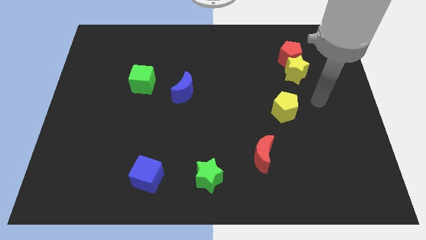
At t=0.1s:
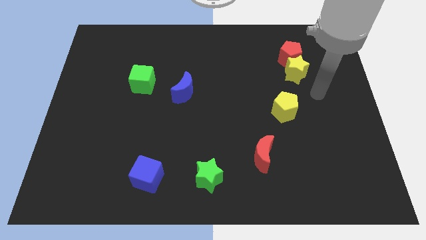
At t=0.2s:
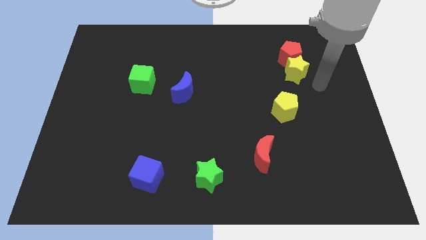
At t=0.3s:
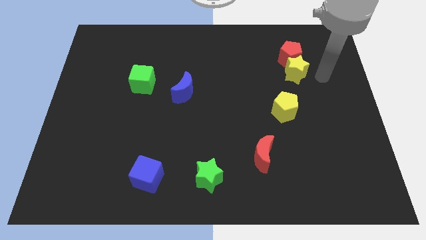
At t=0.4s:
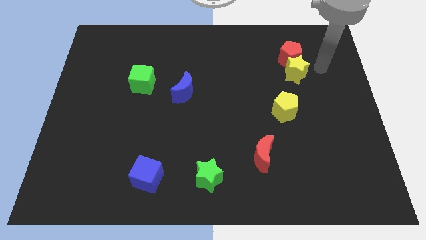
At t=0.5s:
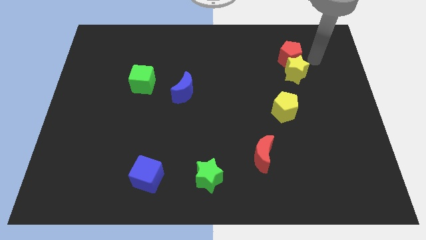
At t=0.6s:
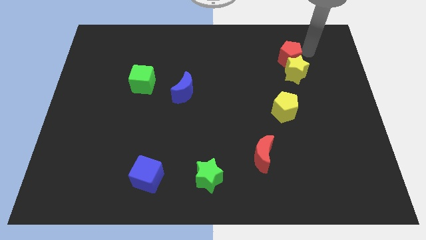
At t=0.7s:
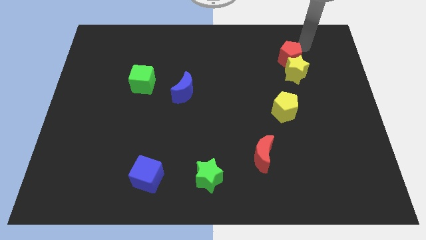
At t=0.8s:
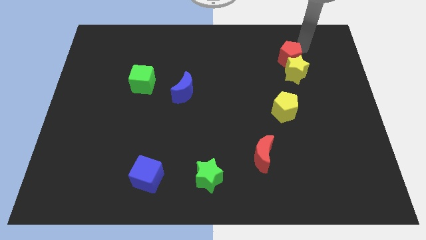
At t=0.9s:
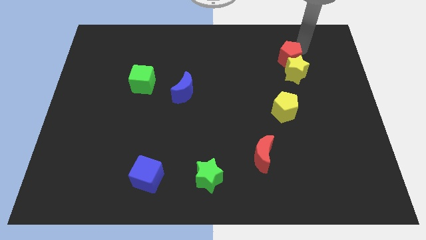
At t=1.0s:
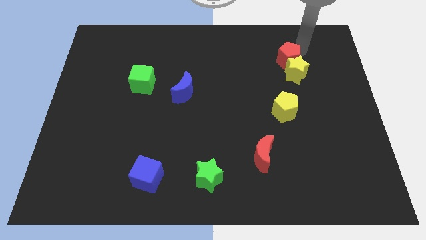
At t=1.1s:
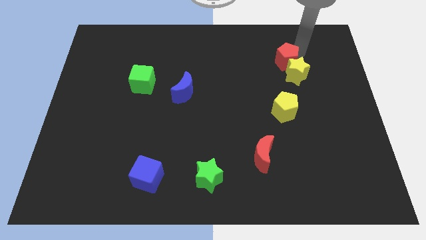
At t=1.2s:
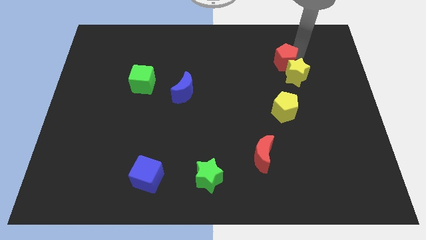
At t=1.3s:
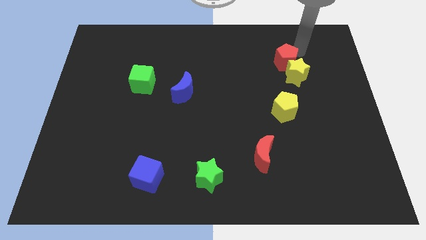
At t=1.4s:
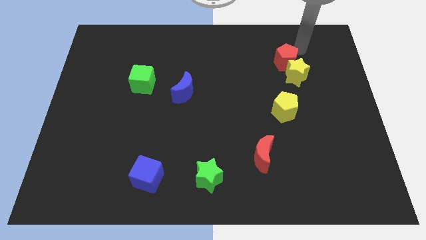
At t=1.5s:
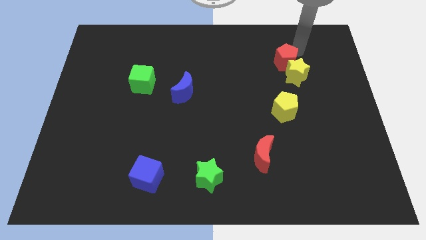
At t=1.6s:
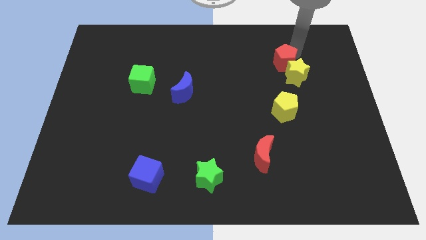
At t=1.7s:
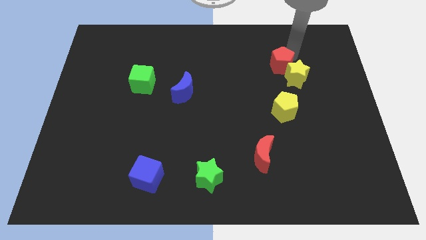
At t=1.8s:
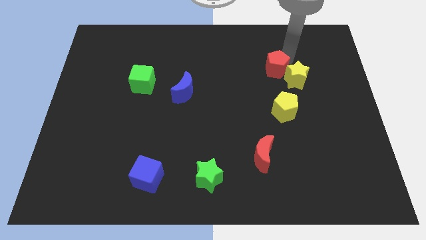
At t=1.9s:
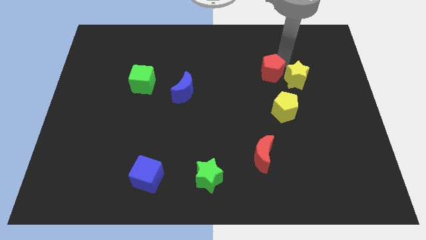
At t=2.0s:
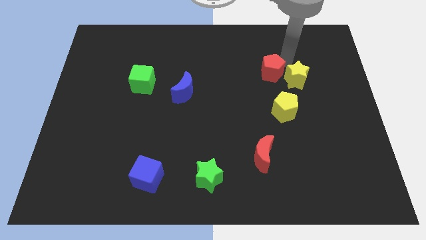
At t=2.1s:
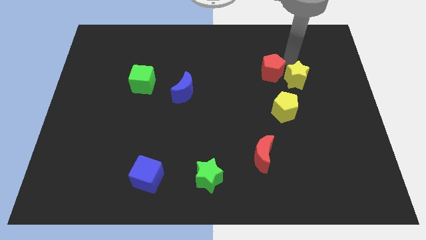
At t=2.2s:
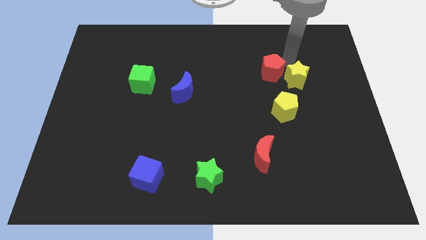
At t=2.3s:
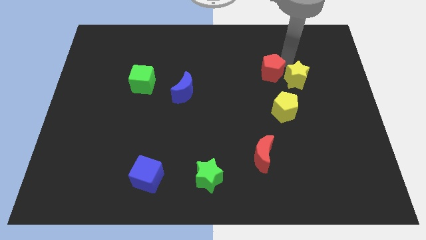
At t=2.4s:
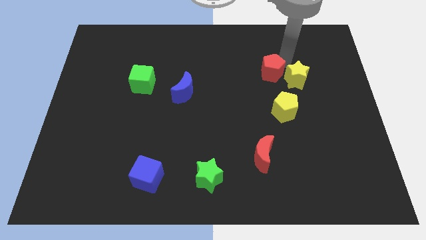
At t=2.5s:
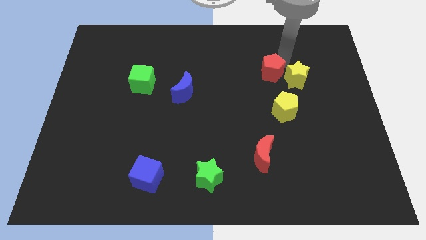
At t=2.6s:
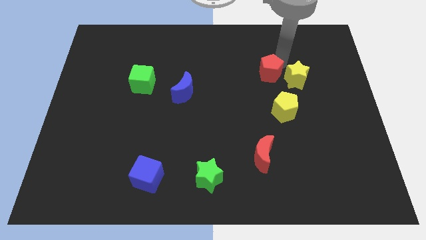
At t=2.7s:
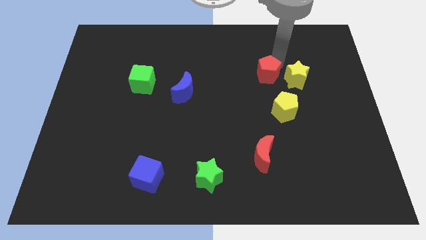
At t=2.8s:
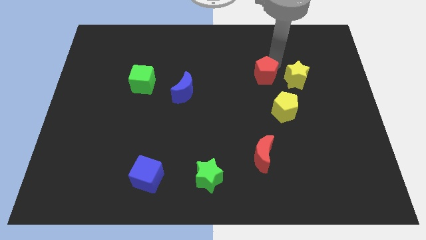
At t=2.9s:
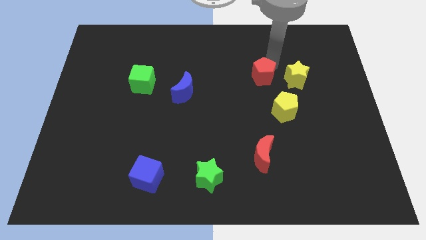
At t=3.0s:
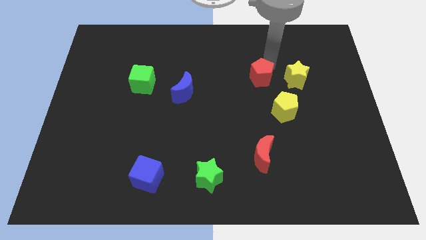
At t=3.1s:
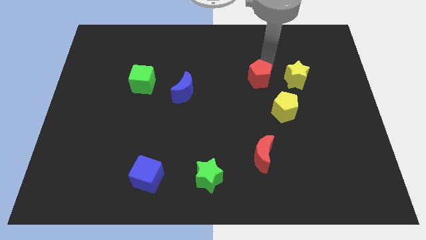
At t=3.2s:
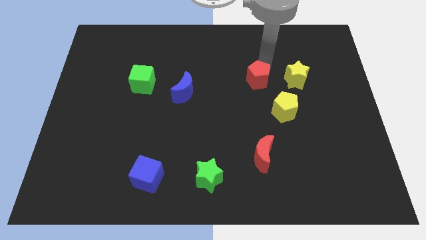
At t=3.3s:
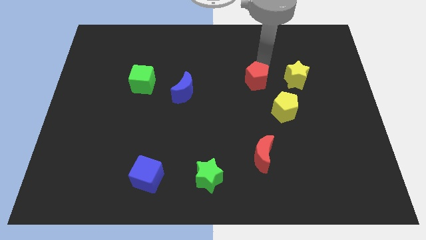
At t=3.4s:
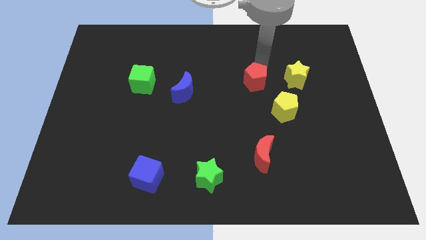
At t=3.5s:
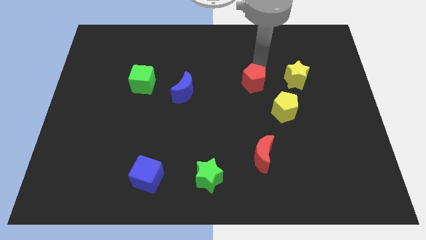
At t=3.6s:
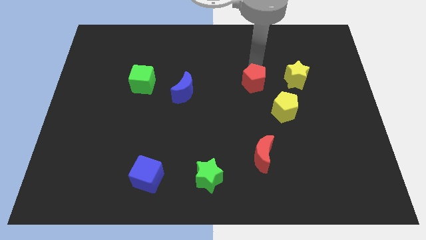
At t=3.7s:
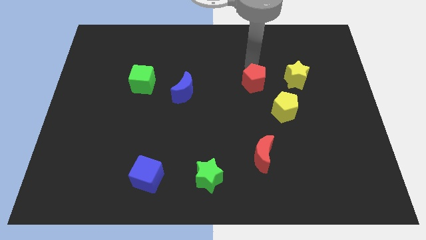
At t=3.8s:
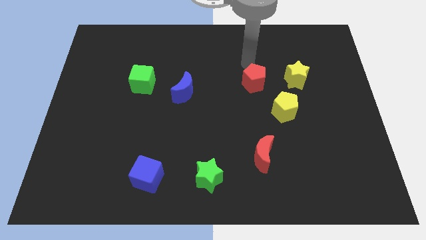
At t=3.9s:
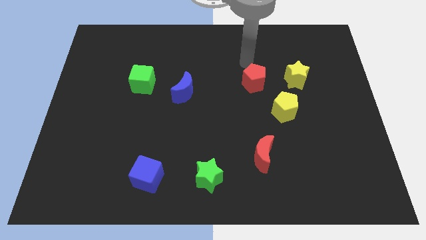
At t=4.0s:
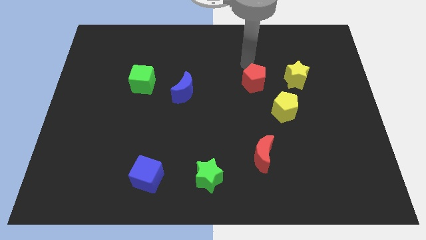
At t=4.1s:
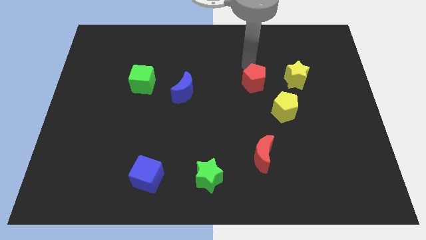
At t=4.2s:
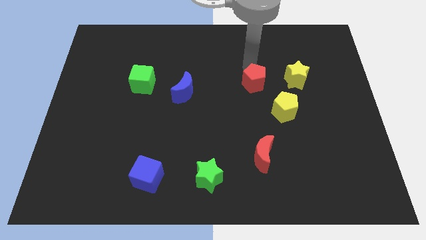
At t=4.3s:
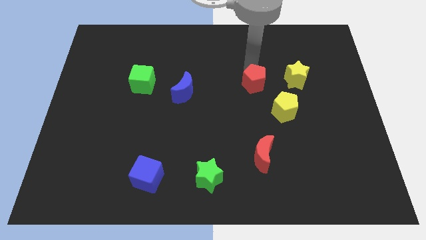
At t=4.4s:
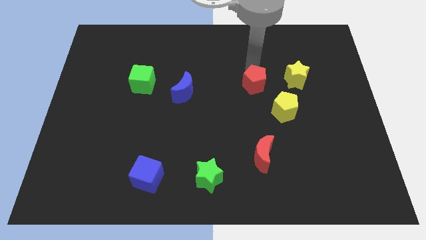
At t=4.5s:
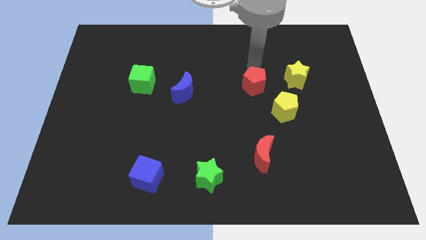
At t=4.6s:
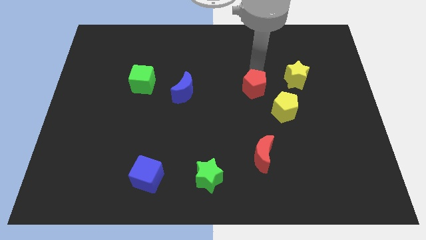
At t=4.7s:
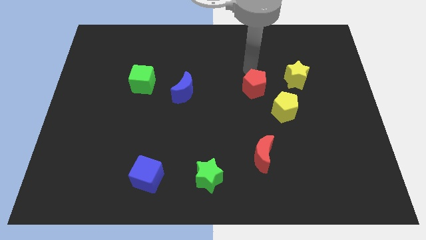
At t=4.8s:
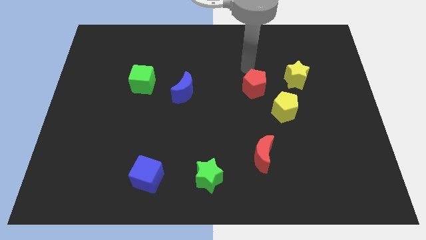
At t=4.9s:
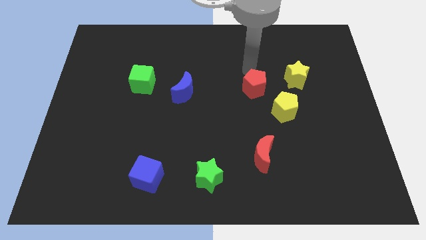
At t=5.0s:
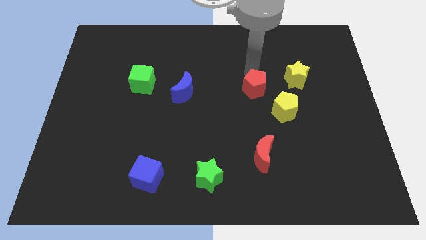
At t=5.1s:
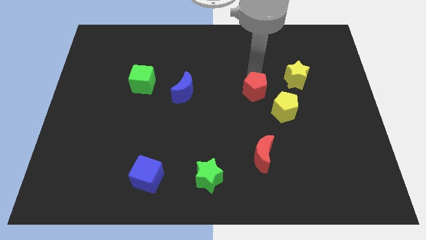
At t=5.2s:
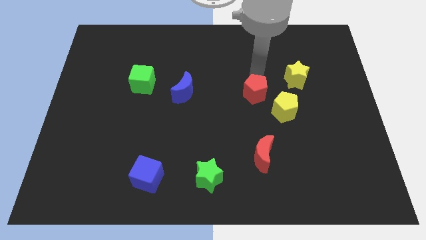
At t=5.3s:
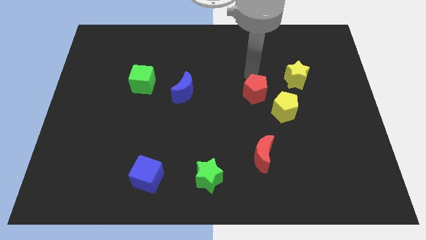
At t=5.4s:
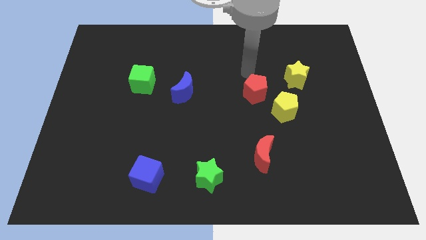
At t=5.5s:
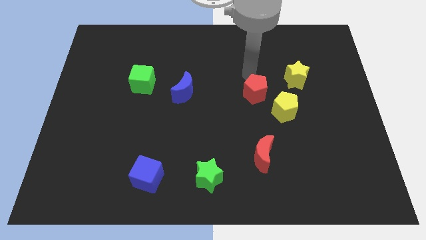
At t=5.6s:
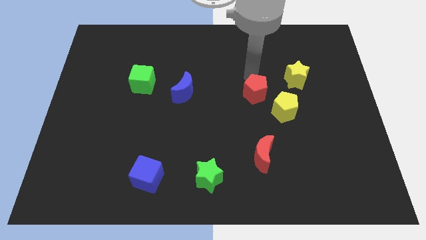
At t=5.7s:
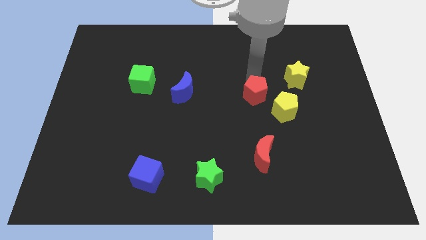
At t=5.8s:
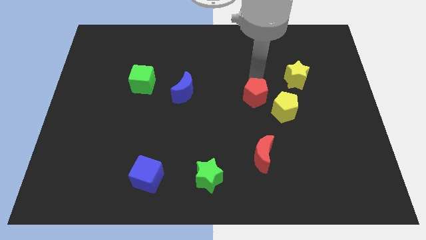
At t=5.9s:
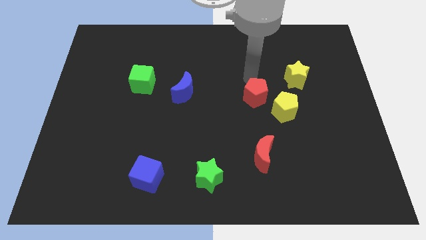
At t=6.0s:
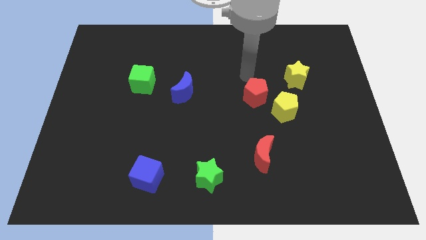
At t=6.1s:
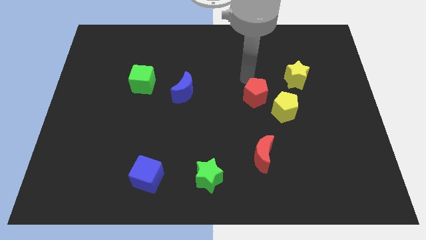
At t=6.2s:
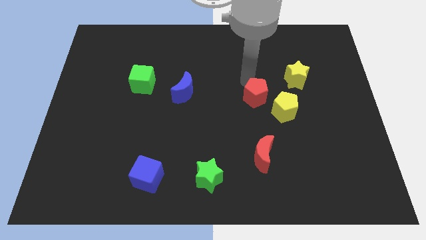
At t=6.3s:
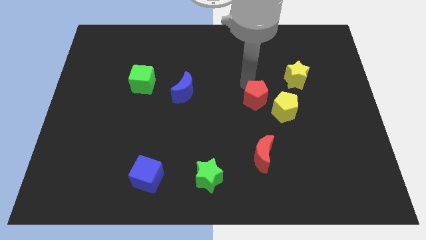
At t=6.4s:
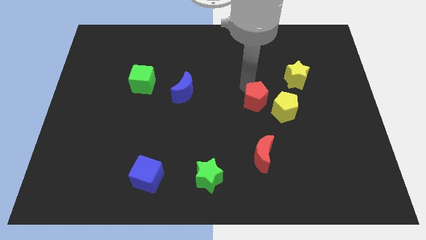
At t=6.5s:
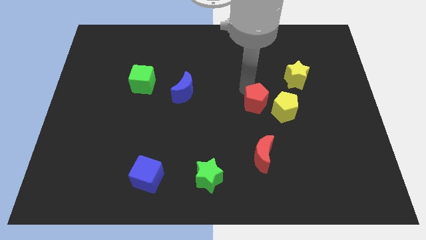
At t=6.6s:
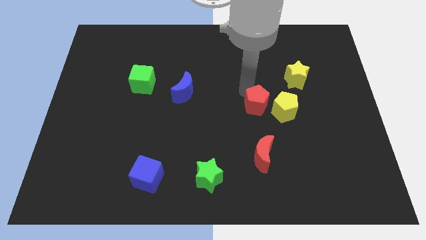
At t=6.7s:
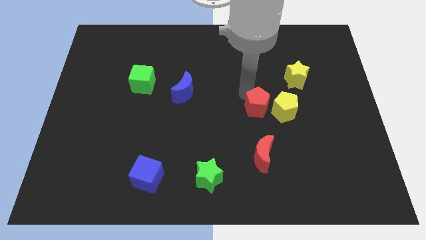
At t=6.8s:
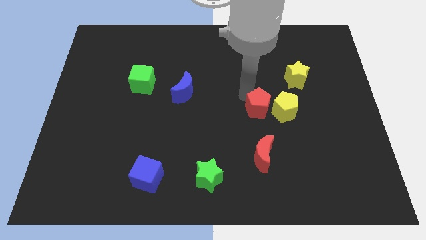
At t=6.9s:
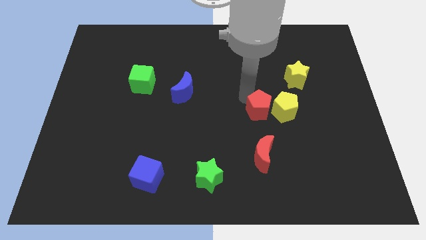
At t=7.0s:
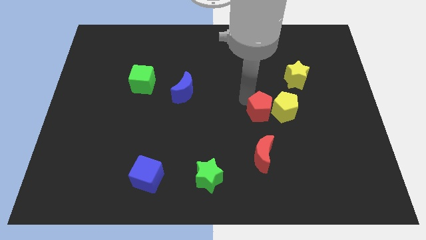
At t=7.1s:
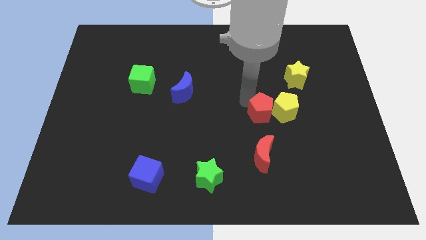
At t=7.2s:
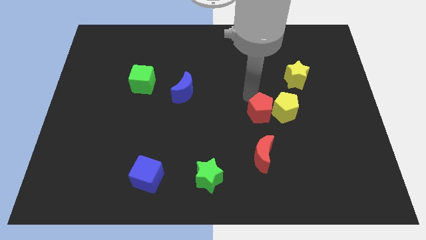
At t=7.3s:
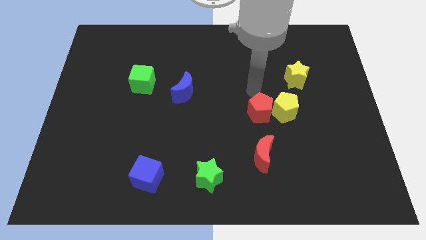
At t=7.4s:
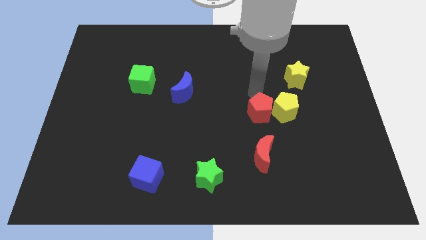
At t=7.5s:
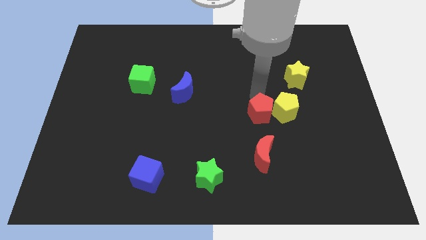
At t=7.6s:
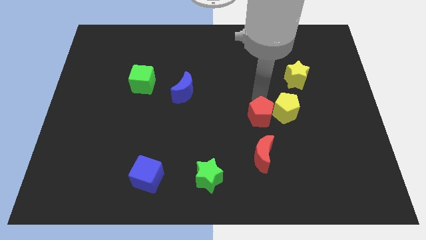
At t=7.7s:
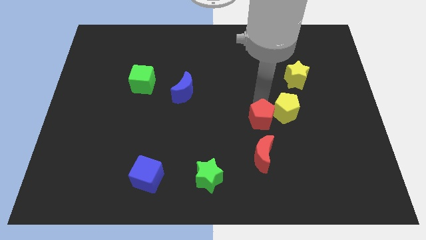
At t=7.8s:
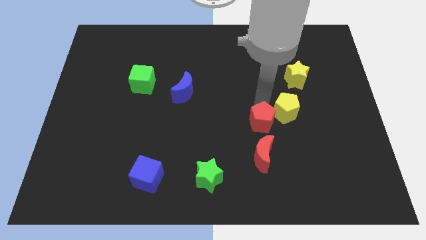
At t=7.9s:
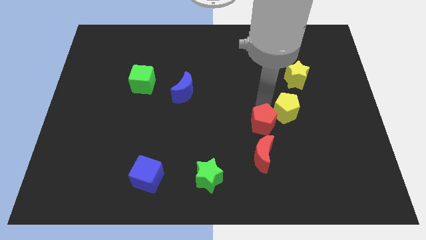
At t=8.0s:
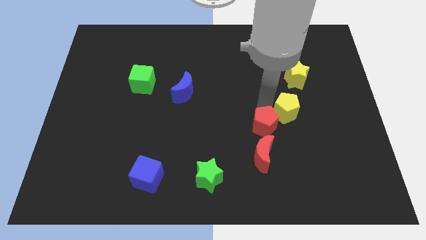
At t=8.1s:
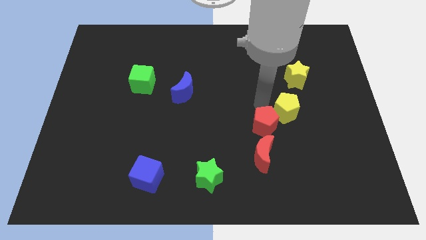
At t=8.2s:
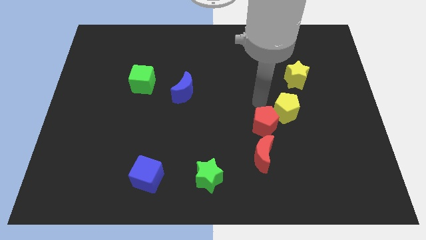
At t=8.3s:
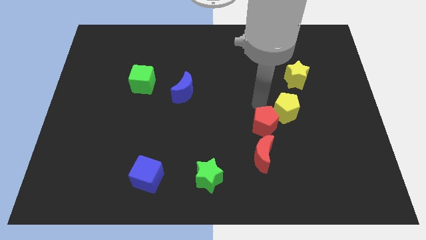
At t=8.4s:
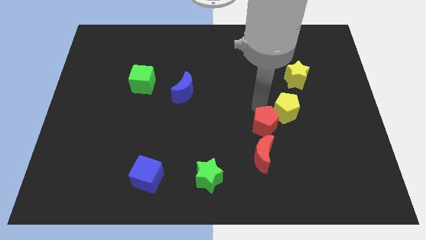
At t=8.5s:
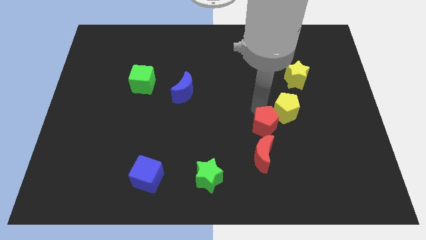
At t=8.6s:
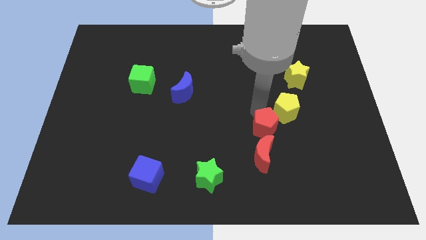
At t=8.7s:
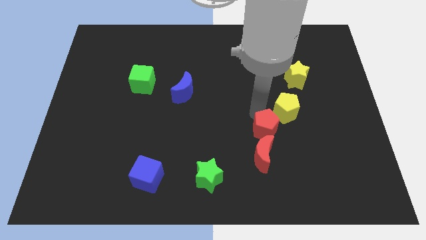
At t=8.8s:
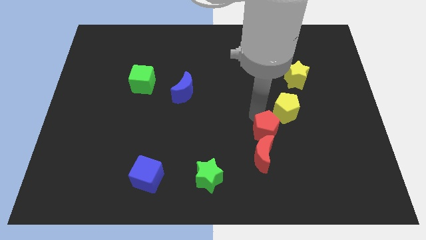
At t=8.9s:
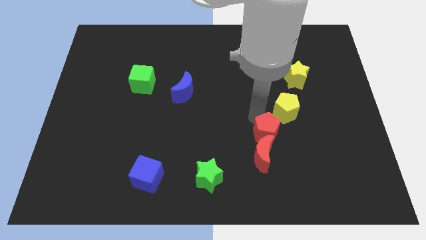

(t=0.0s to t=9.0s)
put the red pentagon close to the red moon
